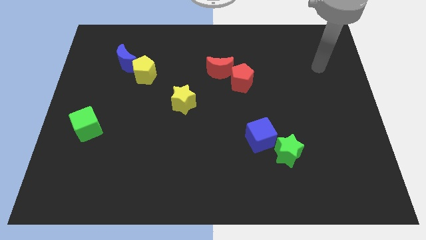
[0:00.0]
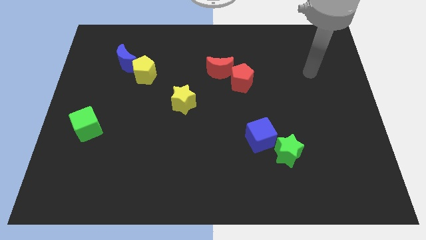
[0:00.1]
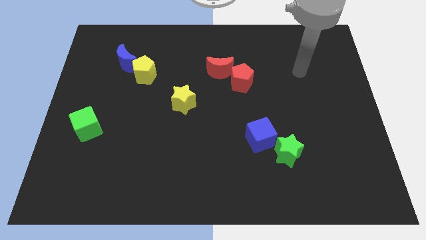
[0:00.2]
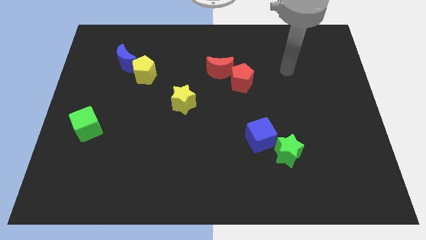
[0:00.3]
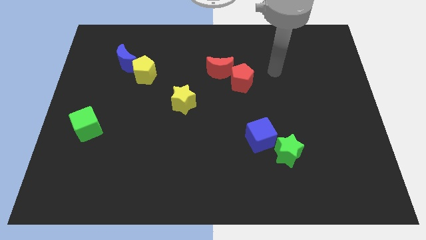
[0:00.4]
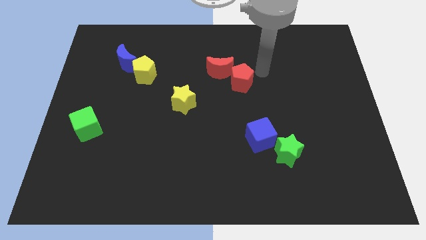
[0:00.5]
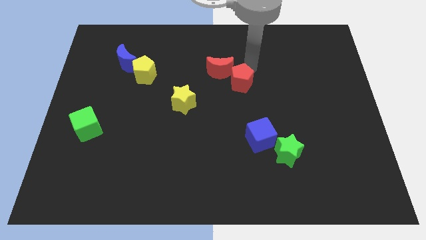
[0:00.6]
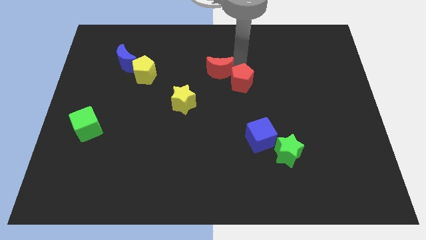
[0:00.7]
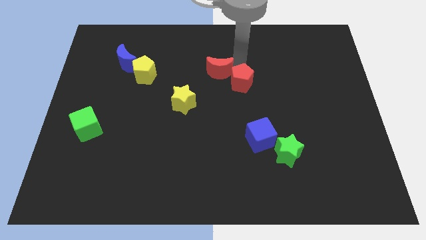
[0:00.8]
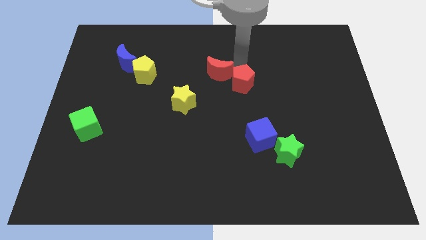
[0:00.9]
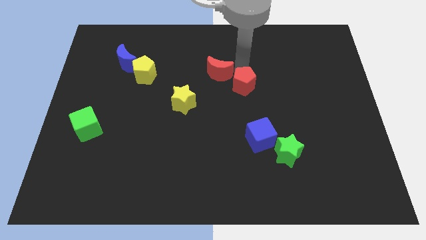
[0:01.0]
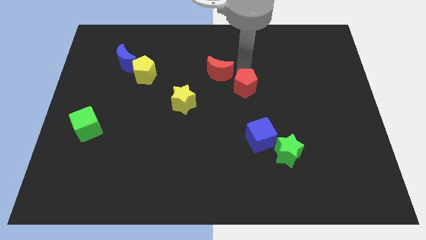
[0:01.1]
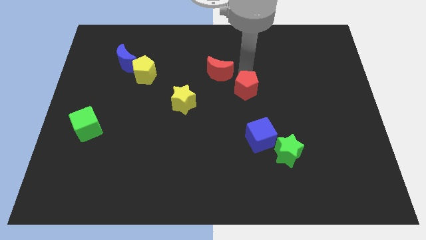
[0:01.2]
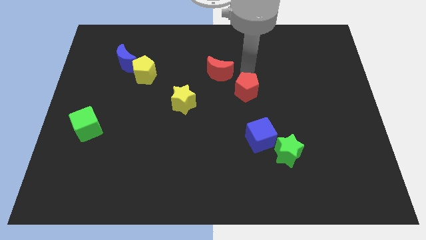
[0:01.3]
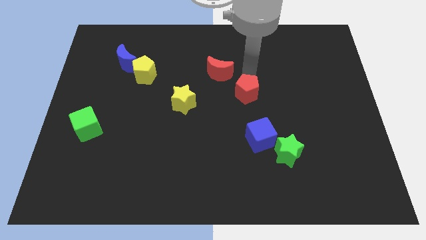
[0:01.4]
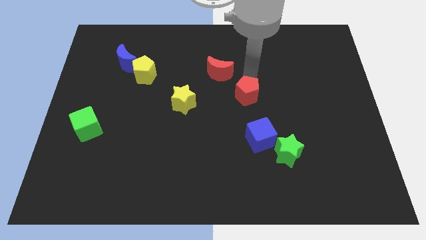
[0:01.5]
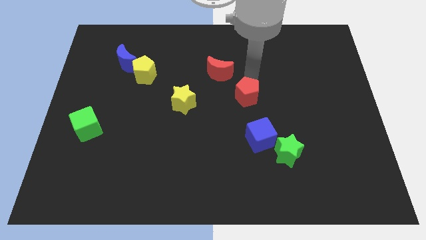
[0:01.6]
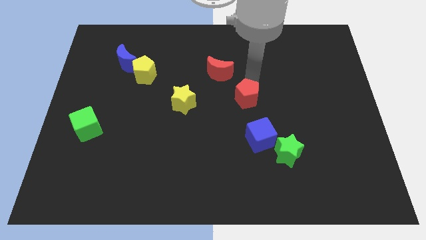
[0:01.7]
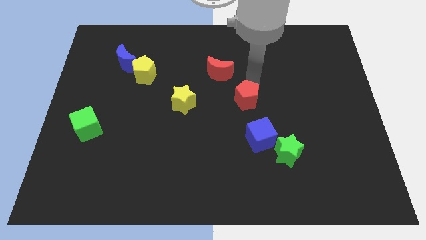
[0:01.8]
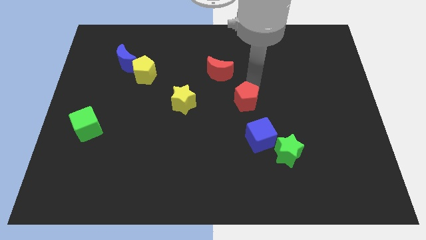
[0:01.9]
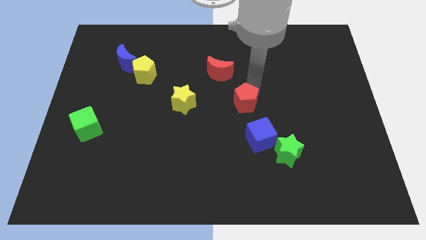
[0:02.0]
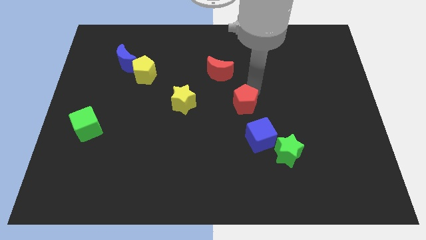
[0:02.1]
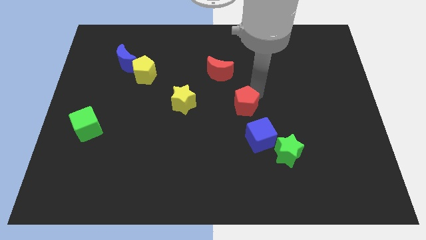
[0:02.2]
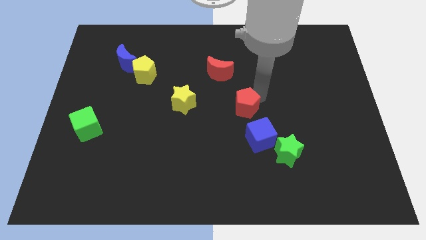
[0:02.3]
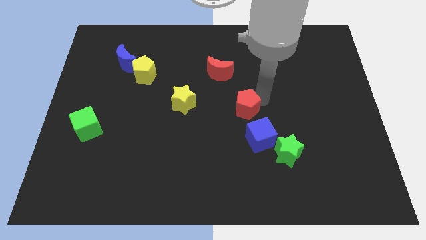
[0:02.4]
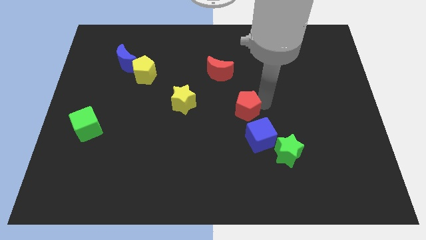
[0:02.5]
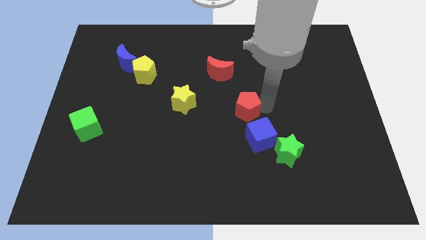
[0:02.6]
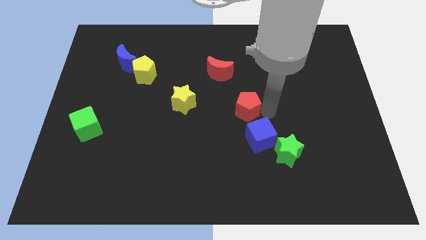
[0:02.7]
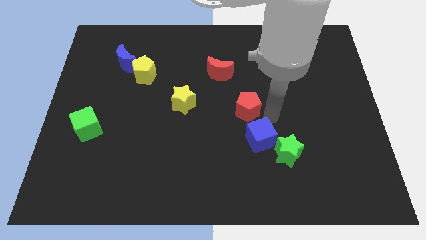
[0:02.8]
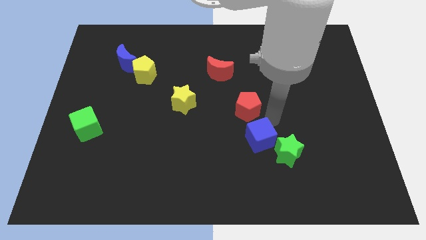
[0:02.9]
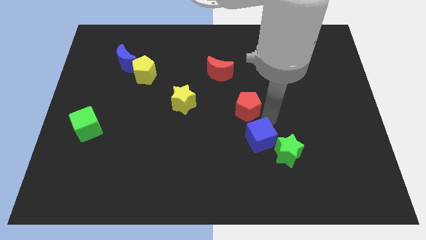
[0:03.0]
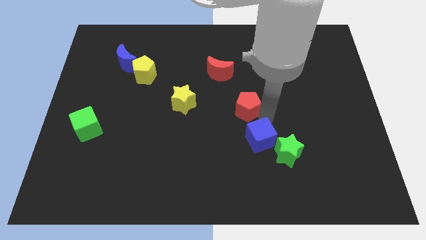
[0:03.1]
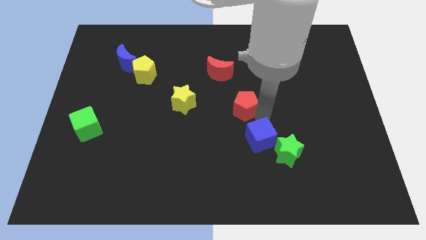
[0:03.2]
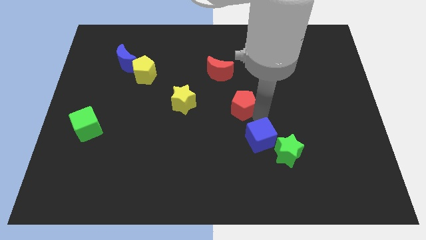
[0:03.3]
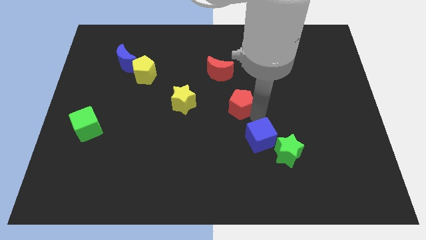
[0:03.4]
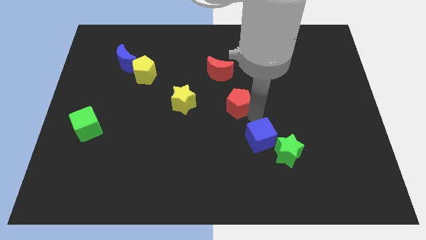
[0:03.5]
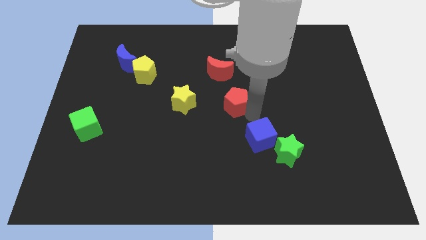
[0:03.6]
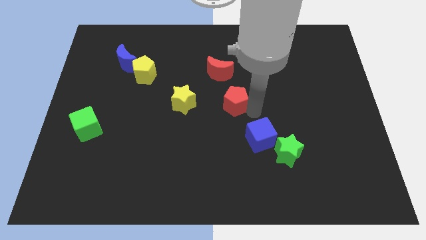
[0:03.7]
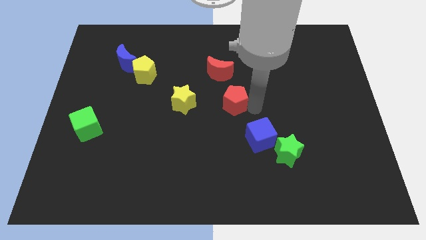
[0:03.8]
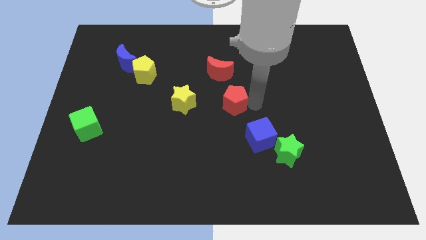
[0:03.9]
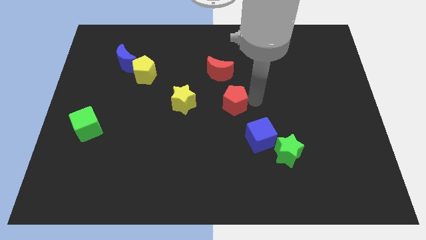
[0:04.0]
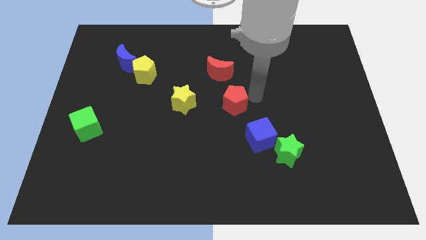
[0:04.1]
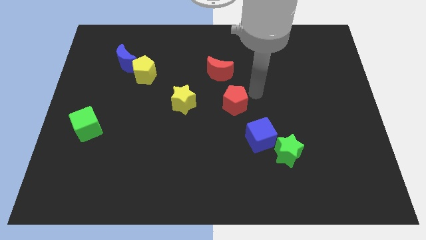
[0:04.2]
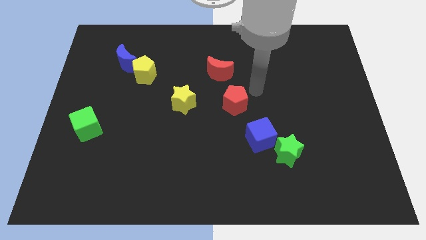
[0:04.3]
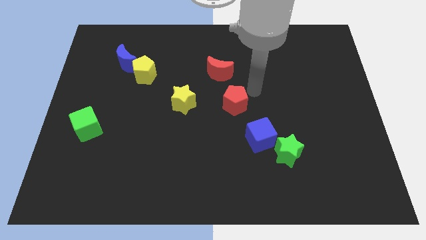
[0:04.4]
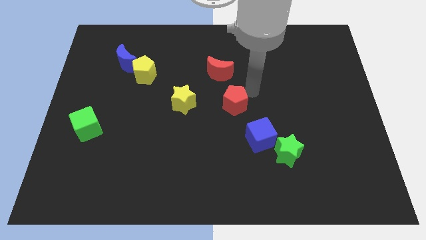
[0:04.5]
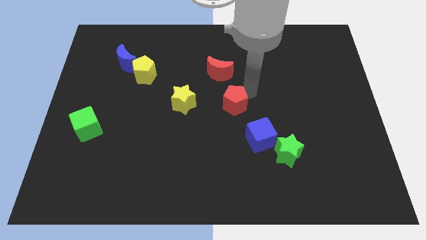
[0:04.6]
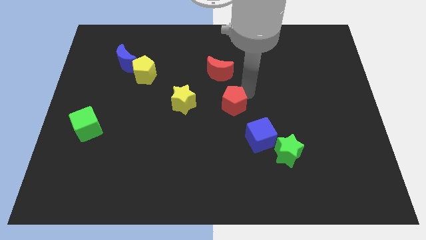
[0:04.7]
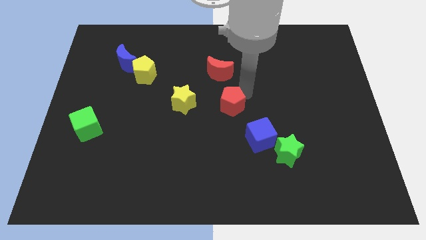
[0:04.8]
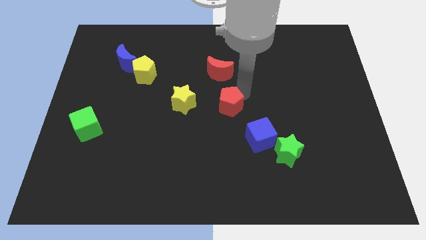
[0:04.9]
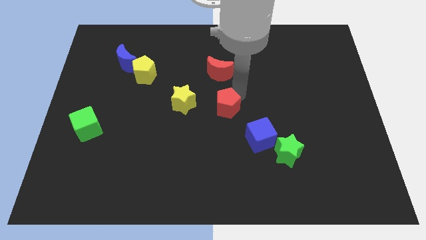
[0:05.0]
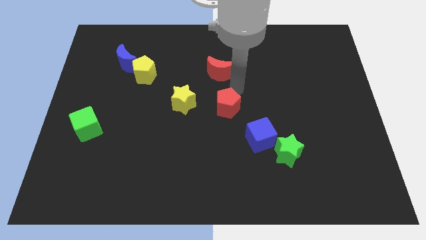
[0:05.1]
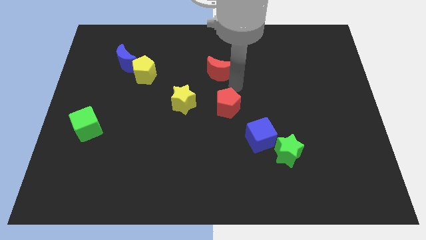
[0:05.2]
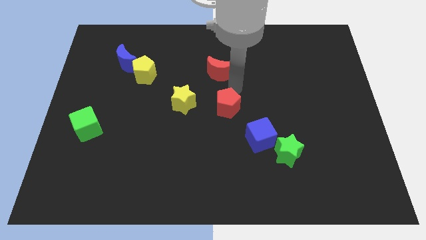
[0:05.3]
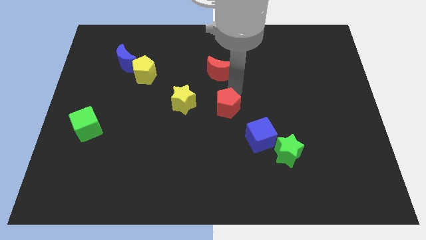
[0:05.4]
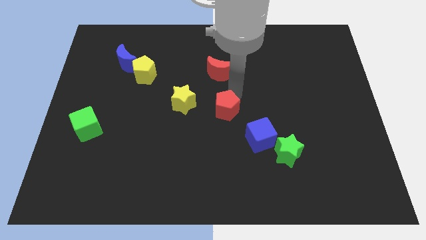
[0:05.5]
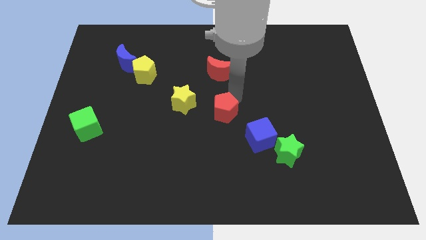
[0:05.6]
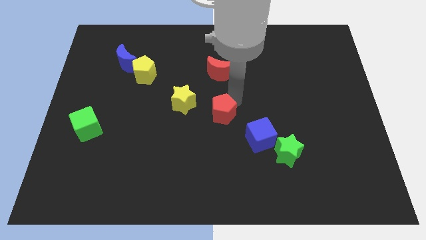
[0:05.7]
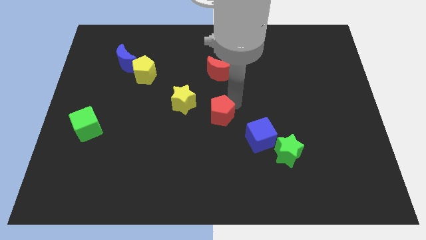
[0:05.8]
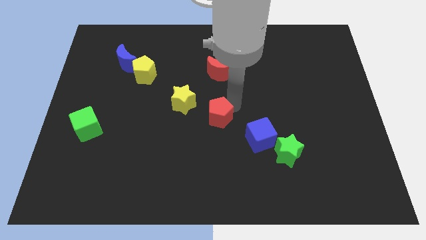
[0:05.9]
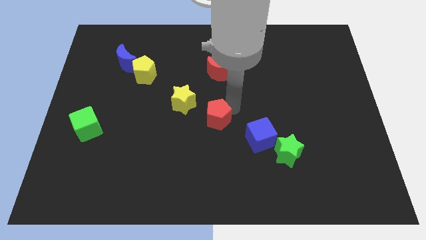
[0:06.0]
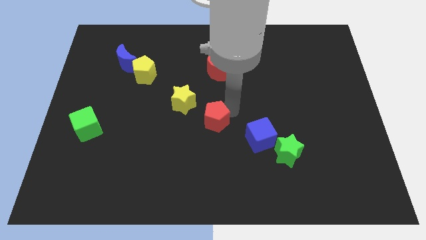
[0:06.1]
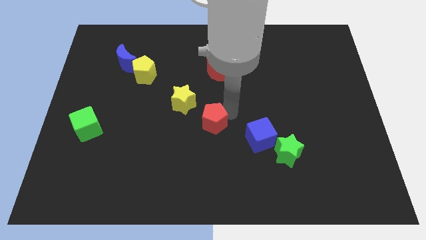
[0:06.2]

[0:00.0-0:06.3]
put the red pentagon to the left side of the blue cube

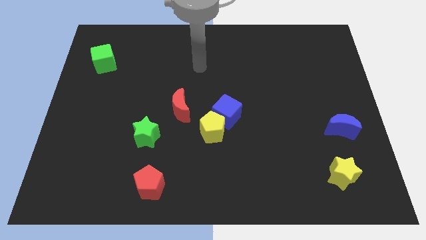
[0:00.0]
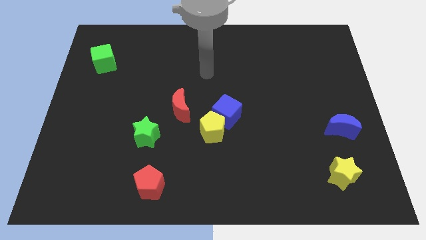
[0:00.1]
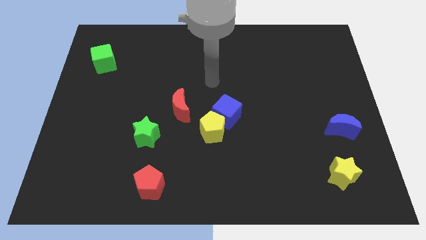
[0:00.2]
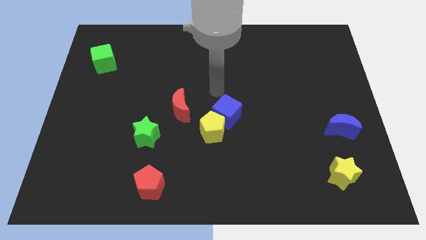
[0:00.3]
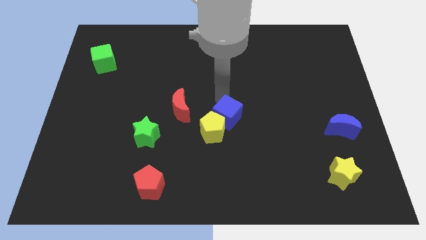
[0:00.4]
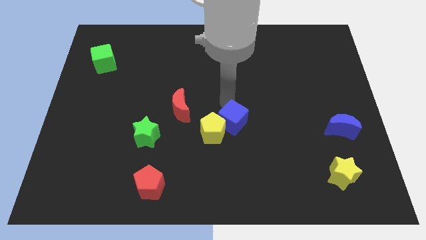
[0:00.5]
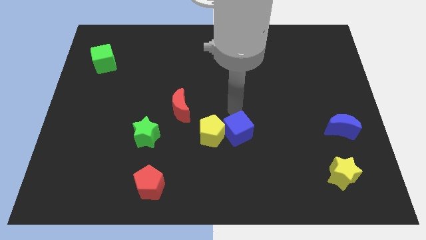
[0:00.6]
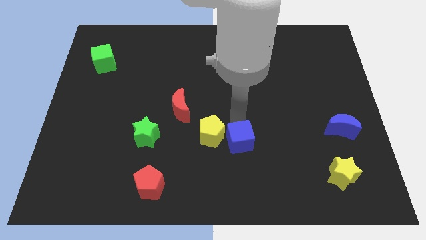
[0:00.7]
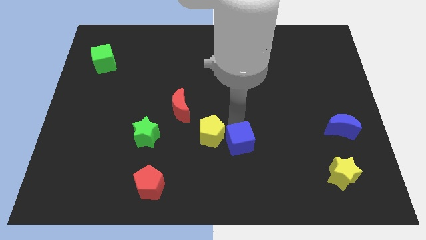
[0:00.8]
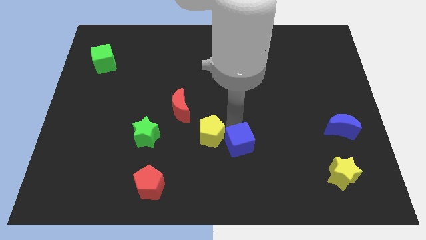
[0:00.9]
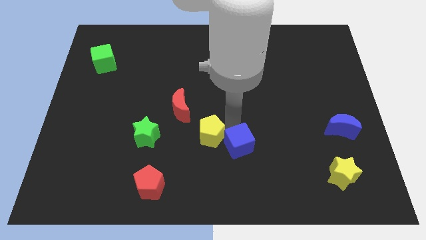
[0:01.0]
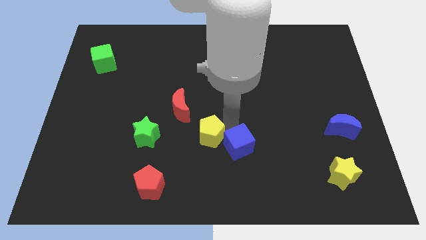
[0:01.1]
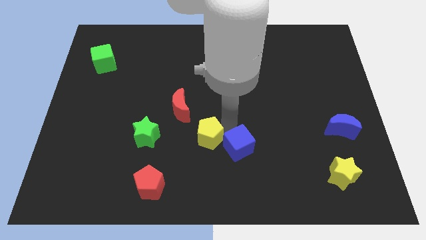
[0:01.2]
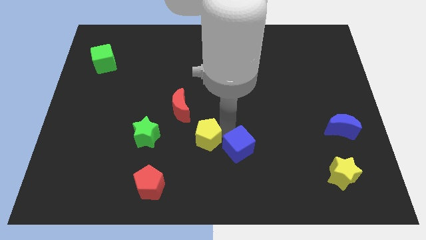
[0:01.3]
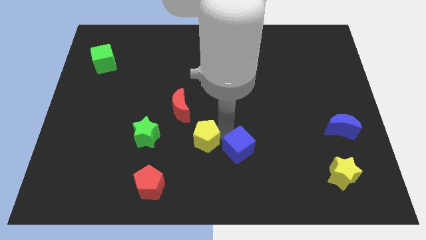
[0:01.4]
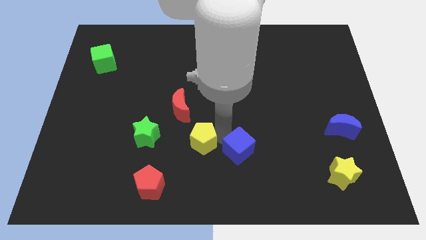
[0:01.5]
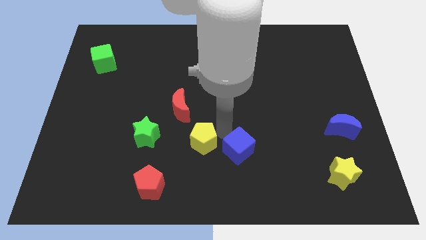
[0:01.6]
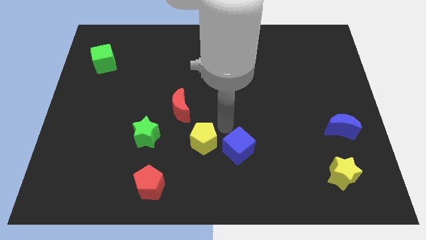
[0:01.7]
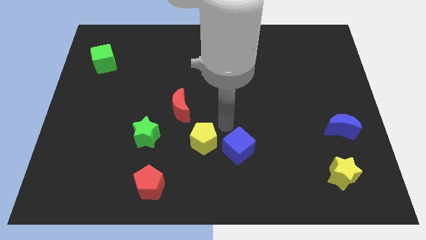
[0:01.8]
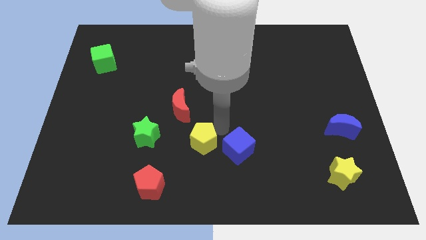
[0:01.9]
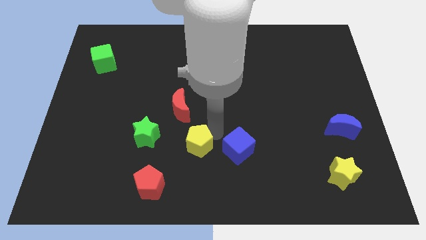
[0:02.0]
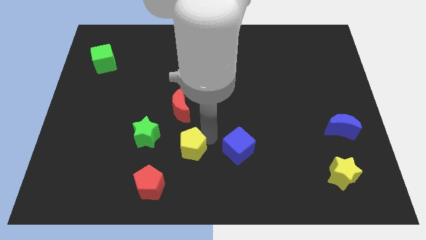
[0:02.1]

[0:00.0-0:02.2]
push the yellow pentagon to the top right side of the red pentagon
